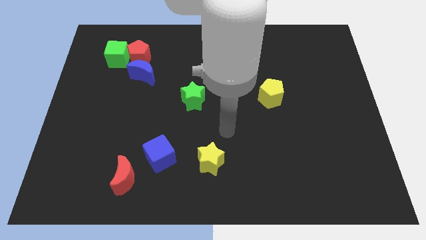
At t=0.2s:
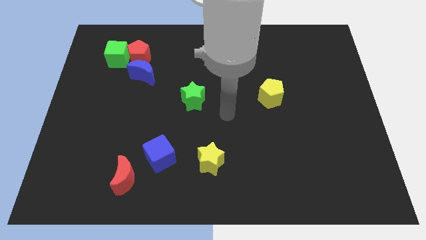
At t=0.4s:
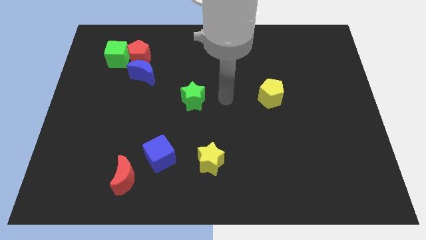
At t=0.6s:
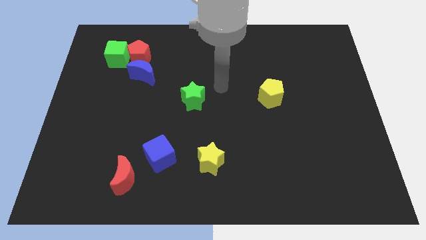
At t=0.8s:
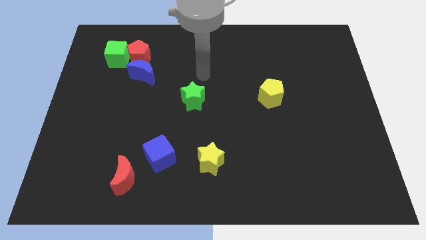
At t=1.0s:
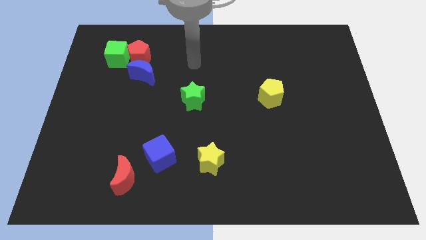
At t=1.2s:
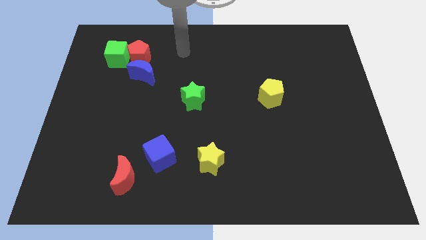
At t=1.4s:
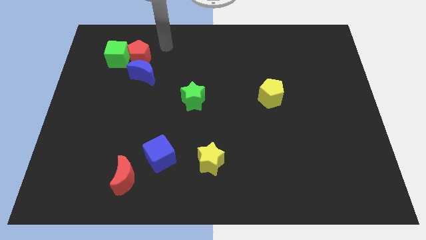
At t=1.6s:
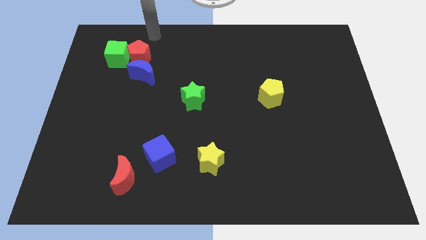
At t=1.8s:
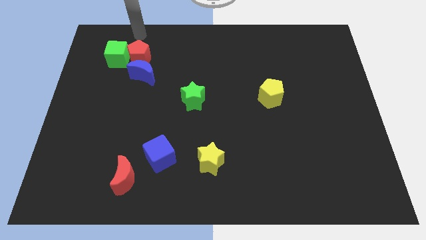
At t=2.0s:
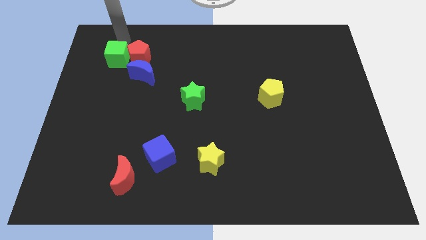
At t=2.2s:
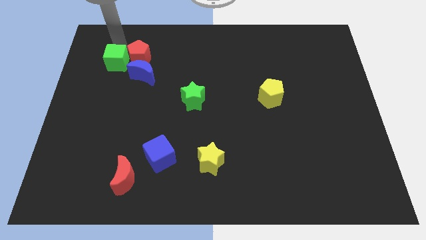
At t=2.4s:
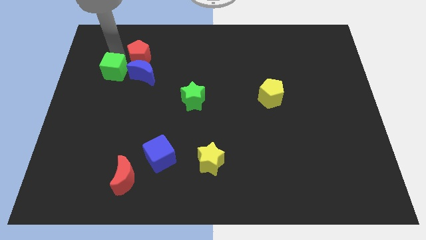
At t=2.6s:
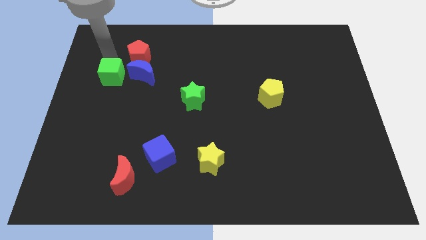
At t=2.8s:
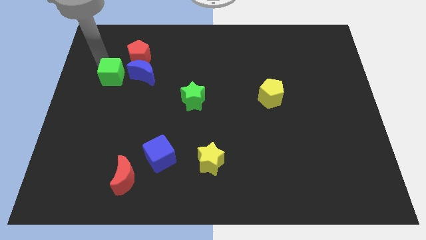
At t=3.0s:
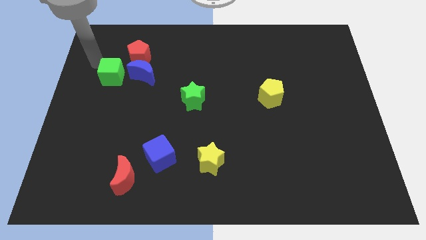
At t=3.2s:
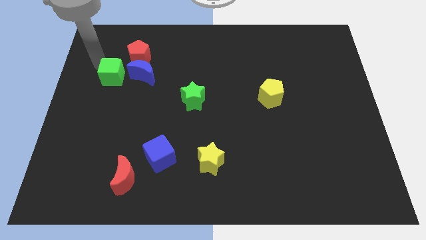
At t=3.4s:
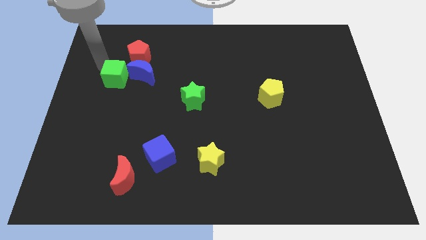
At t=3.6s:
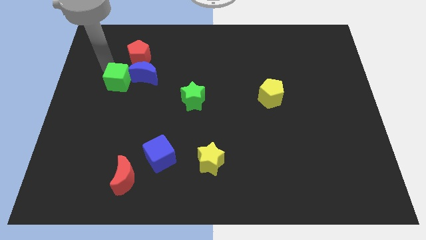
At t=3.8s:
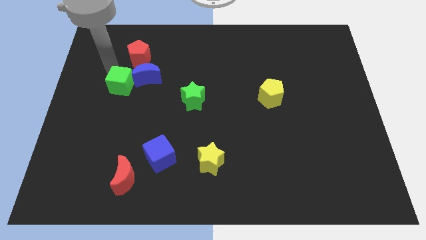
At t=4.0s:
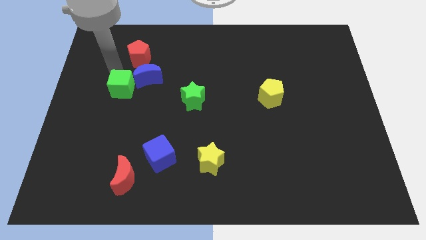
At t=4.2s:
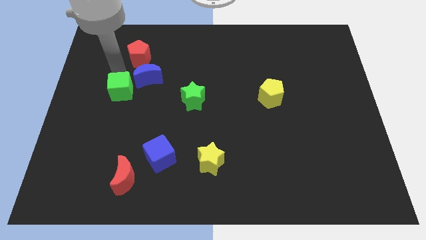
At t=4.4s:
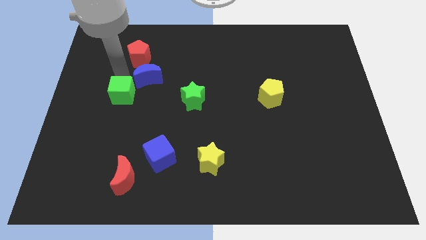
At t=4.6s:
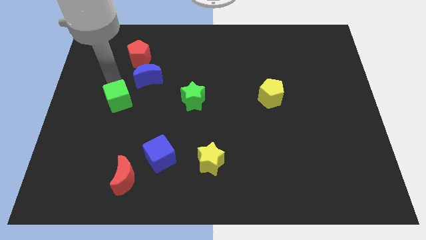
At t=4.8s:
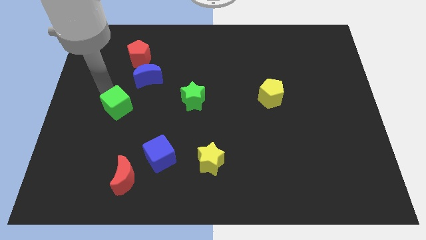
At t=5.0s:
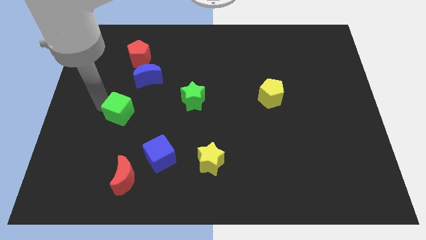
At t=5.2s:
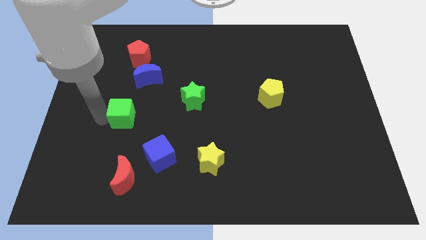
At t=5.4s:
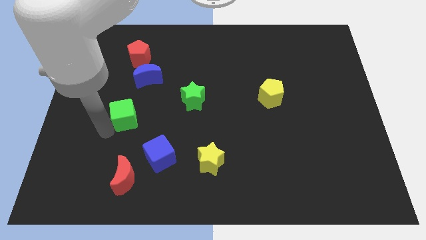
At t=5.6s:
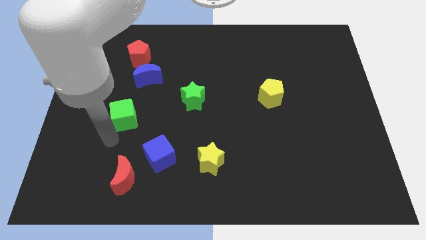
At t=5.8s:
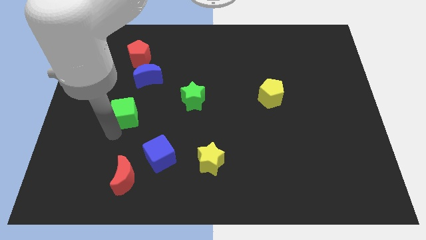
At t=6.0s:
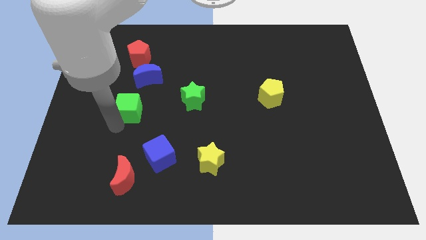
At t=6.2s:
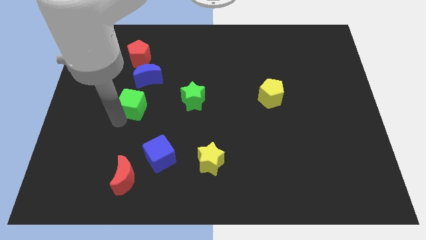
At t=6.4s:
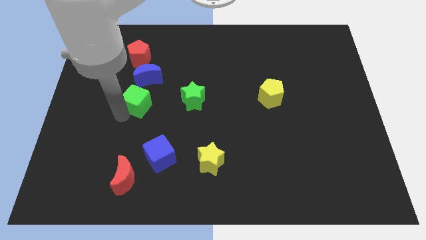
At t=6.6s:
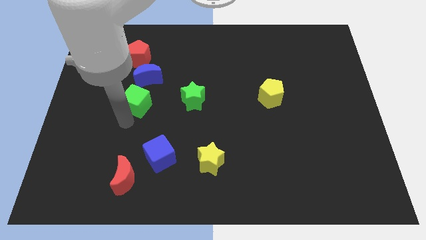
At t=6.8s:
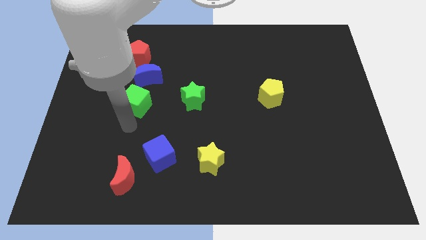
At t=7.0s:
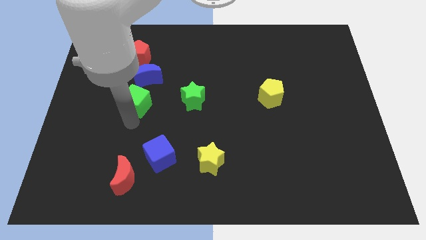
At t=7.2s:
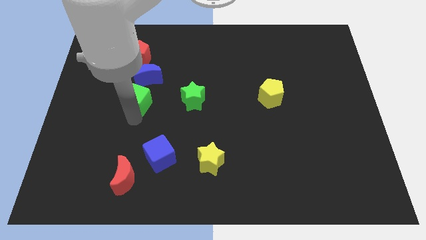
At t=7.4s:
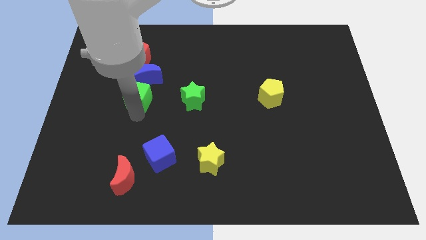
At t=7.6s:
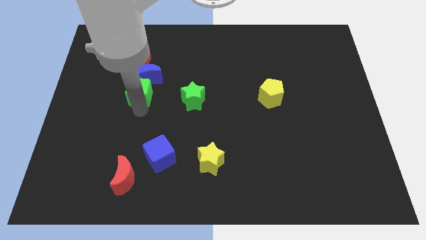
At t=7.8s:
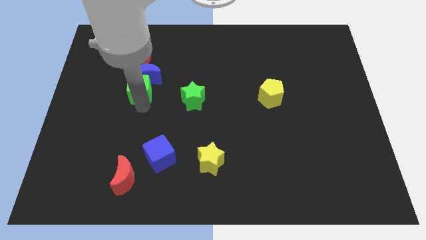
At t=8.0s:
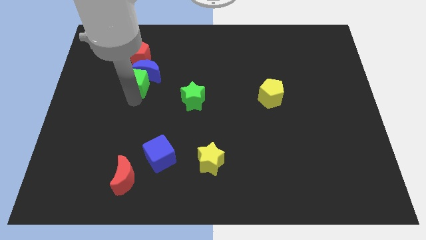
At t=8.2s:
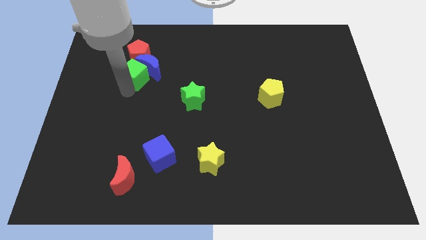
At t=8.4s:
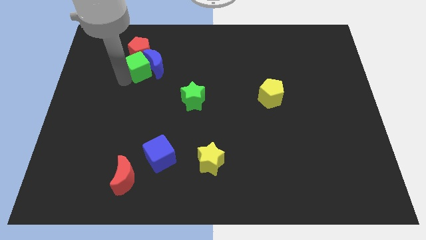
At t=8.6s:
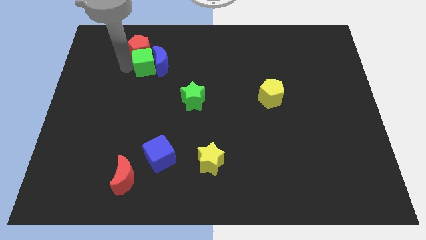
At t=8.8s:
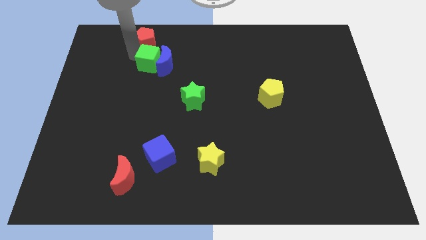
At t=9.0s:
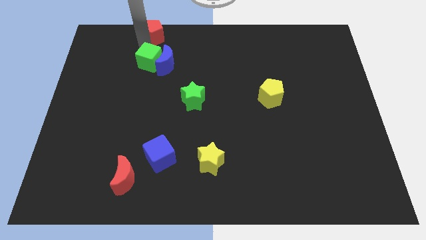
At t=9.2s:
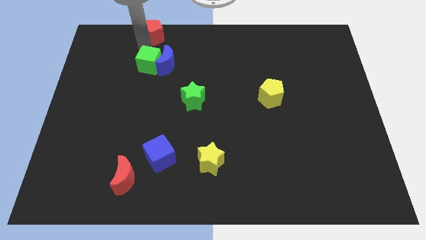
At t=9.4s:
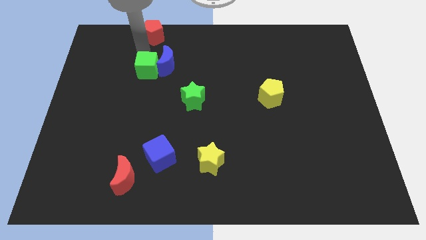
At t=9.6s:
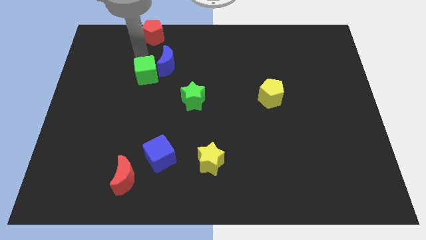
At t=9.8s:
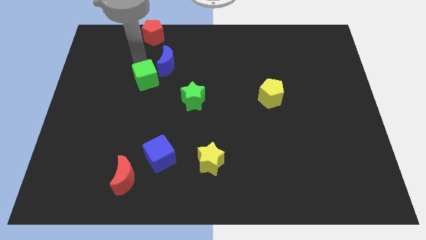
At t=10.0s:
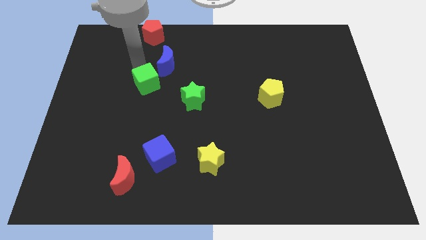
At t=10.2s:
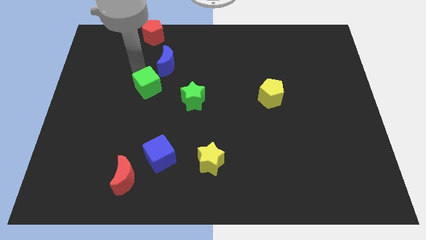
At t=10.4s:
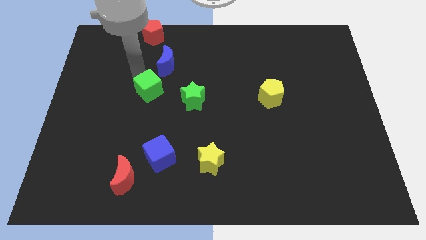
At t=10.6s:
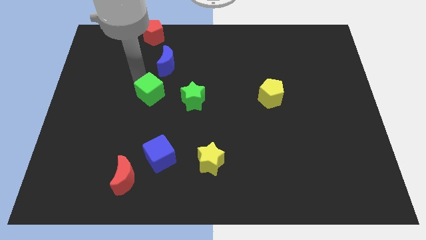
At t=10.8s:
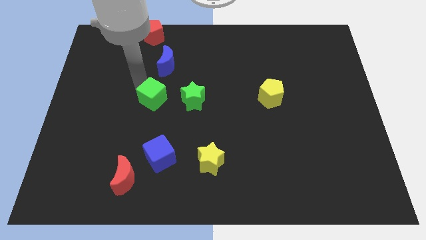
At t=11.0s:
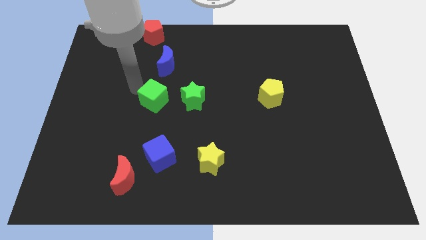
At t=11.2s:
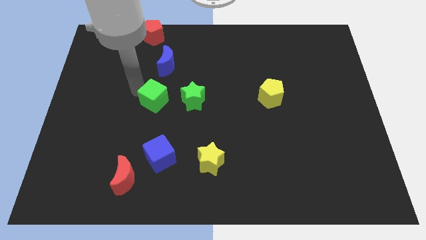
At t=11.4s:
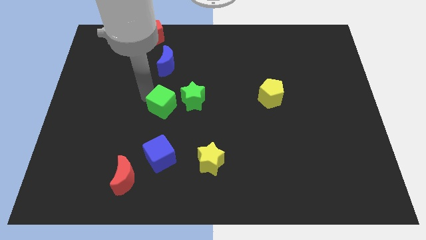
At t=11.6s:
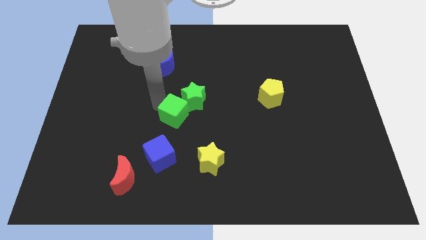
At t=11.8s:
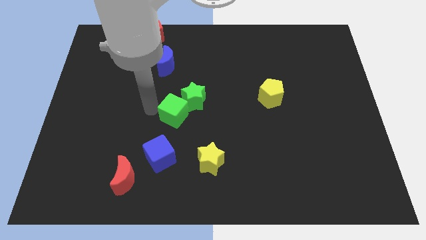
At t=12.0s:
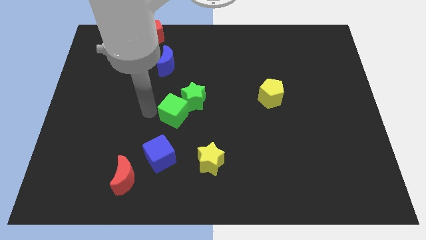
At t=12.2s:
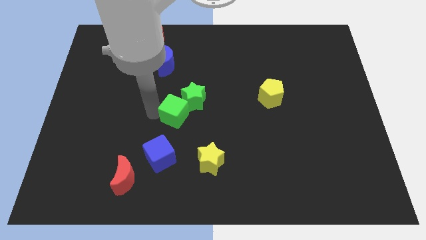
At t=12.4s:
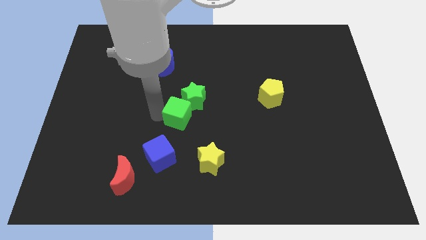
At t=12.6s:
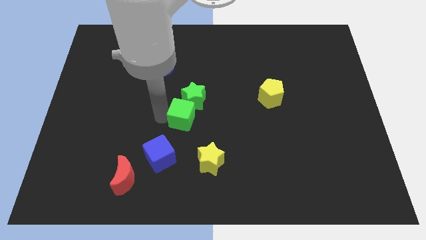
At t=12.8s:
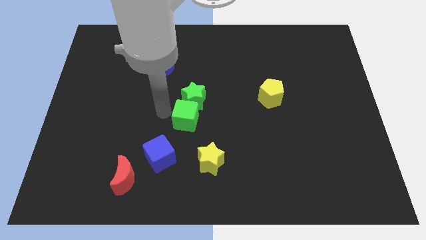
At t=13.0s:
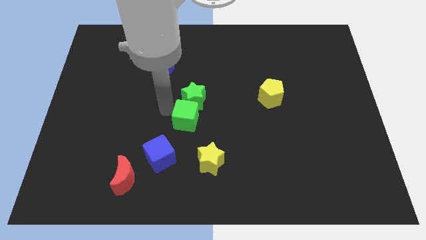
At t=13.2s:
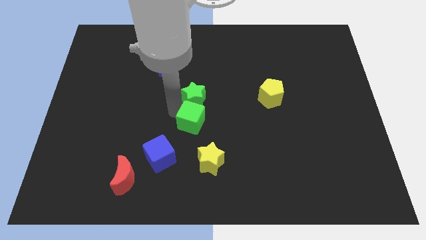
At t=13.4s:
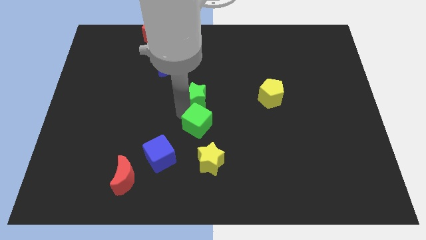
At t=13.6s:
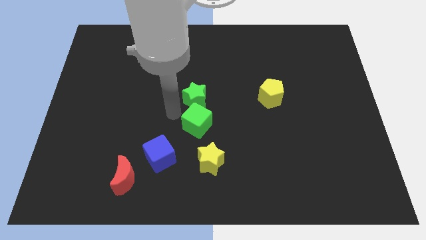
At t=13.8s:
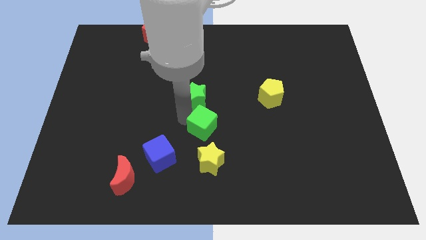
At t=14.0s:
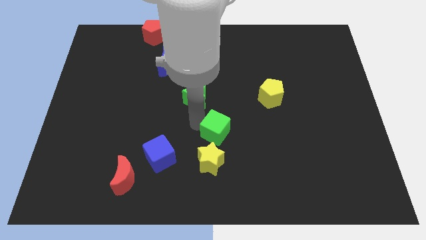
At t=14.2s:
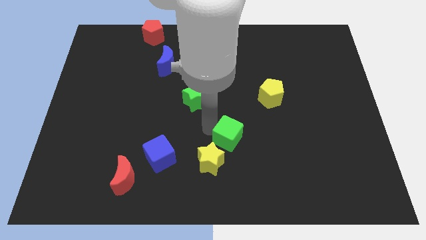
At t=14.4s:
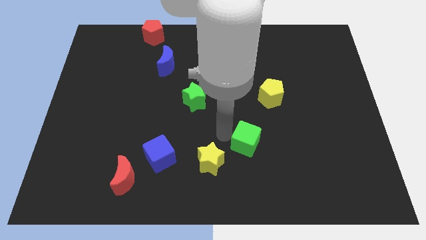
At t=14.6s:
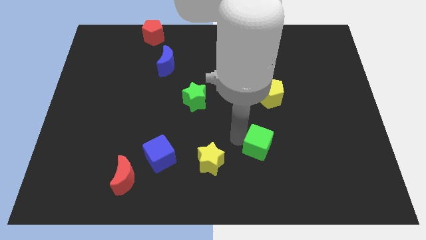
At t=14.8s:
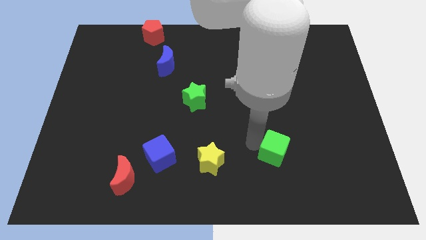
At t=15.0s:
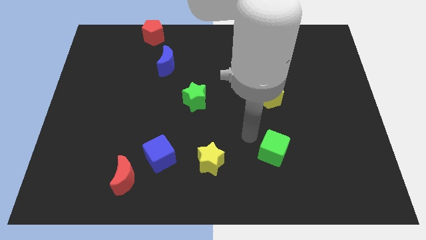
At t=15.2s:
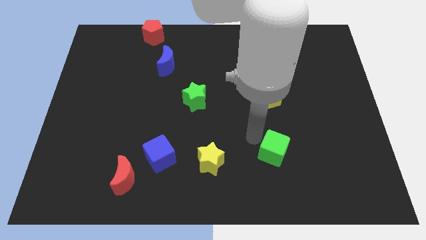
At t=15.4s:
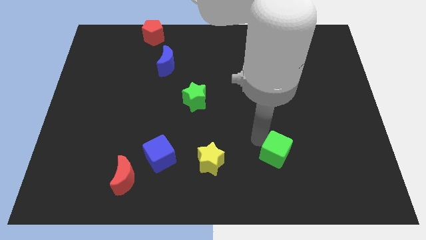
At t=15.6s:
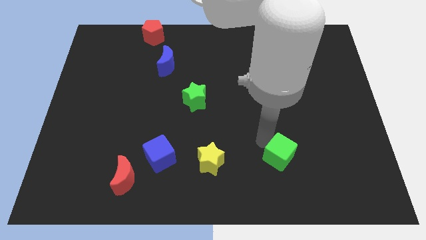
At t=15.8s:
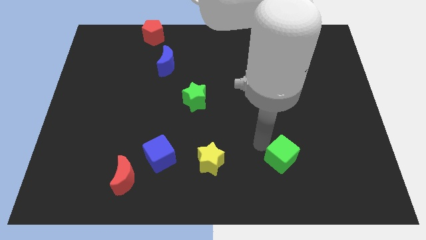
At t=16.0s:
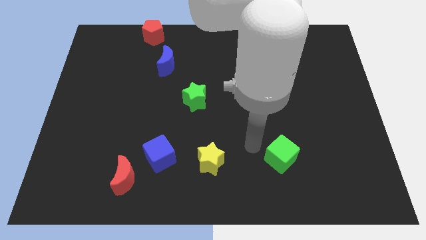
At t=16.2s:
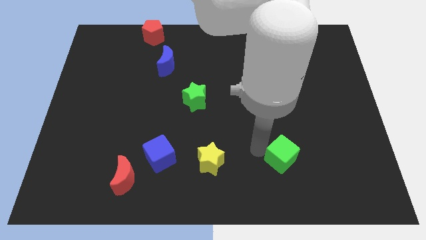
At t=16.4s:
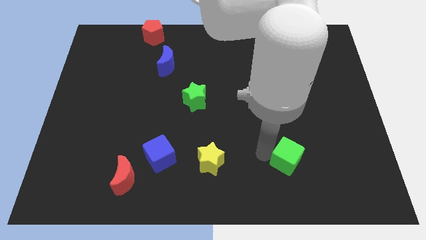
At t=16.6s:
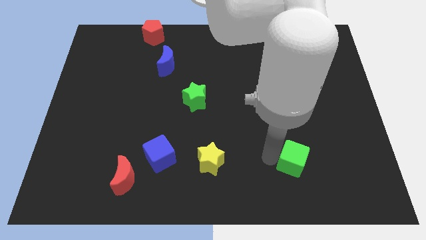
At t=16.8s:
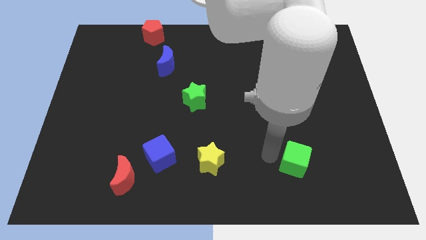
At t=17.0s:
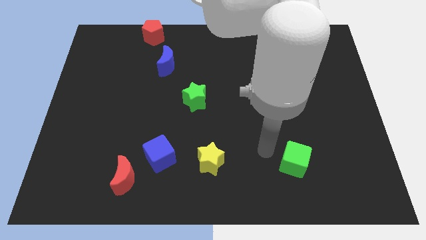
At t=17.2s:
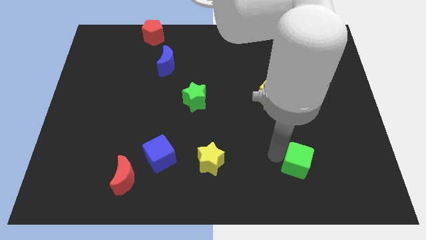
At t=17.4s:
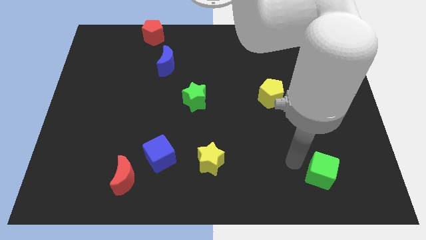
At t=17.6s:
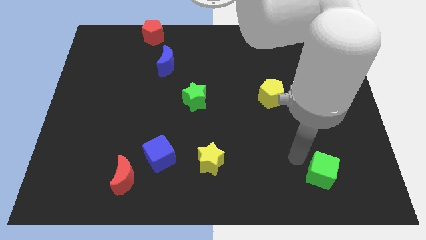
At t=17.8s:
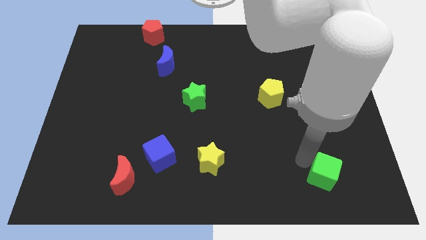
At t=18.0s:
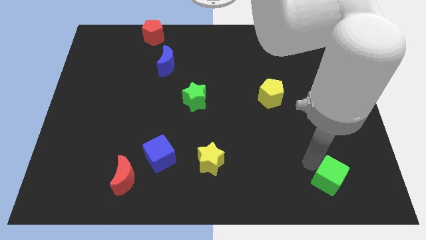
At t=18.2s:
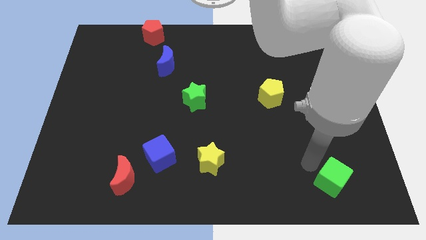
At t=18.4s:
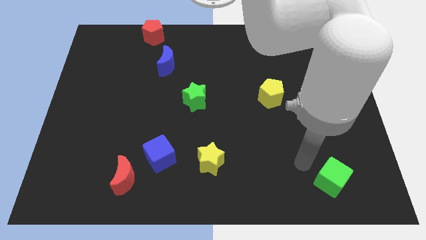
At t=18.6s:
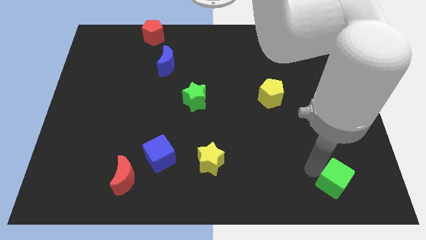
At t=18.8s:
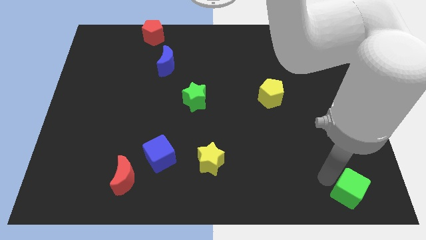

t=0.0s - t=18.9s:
slide the green cube to the lower right corner
